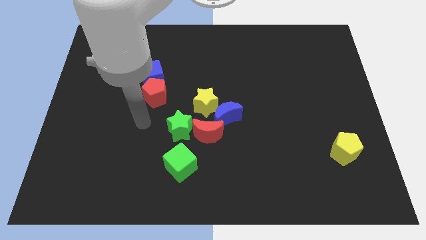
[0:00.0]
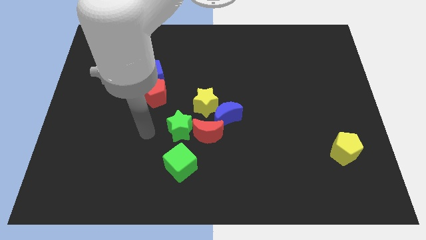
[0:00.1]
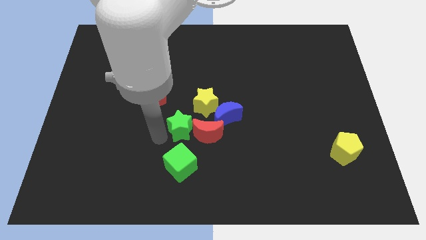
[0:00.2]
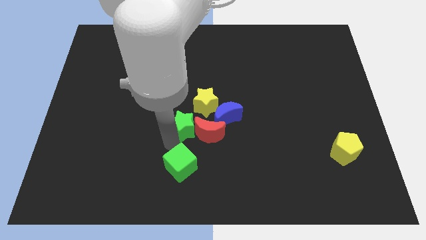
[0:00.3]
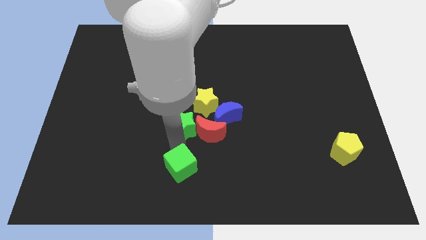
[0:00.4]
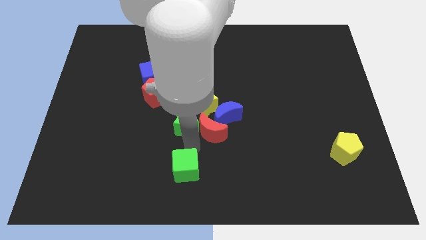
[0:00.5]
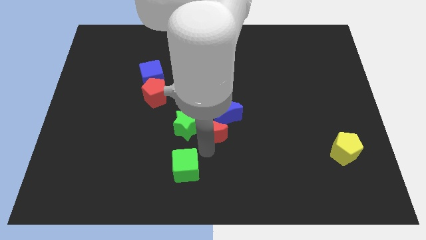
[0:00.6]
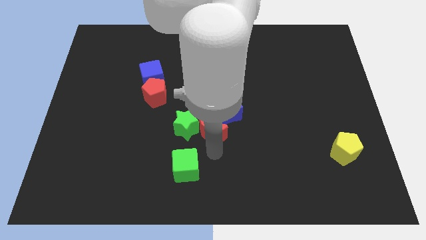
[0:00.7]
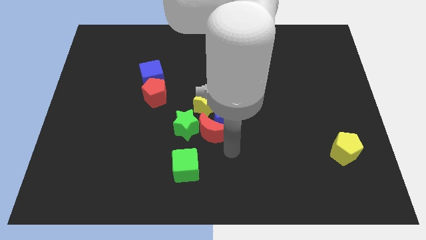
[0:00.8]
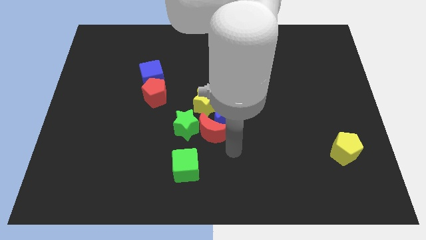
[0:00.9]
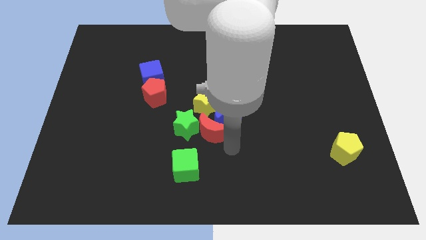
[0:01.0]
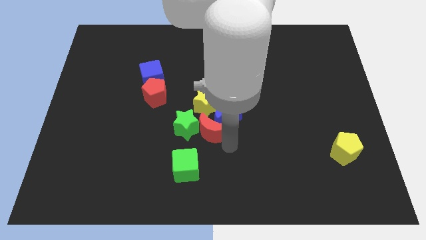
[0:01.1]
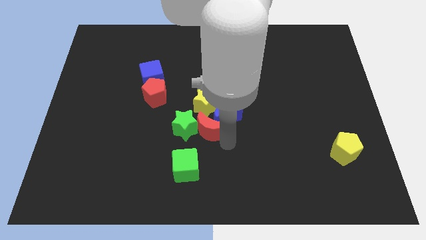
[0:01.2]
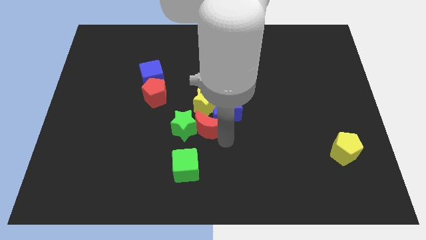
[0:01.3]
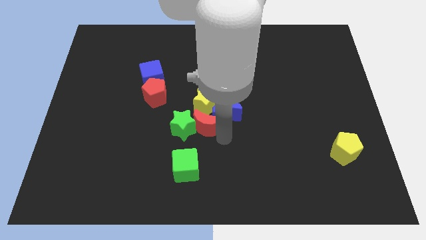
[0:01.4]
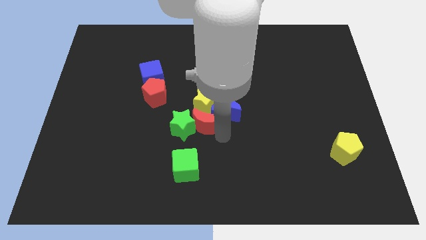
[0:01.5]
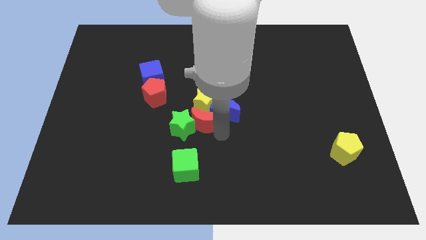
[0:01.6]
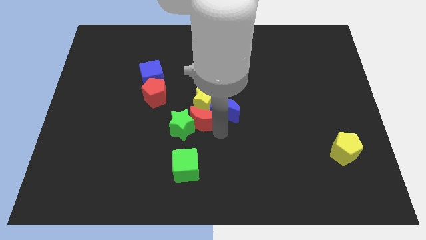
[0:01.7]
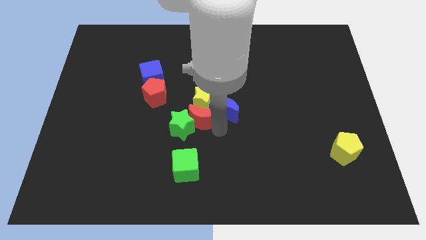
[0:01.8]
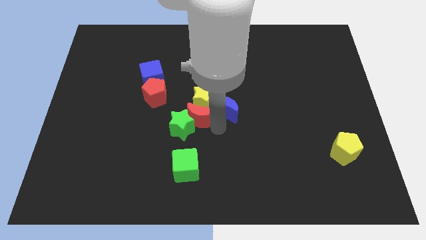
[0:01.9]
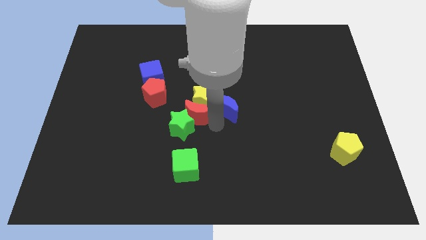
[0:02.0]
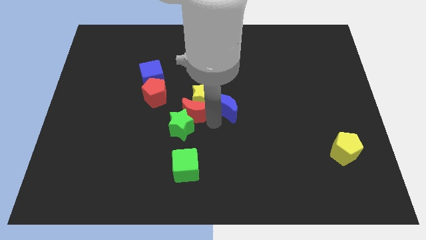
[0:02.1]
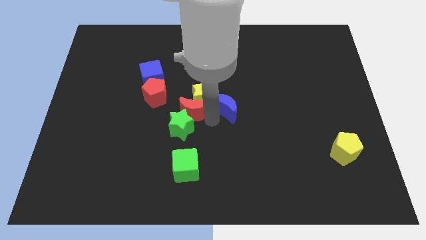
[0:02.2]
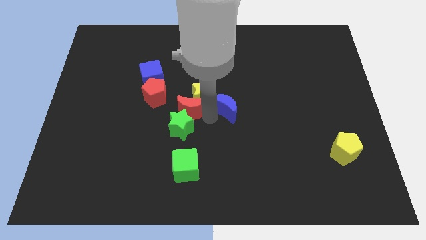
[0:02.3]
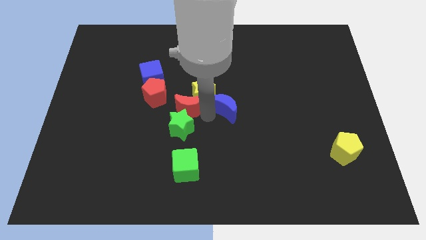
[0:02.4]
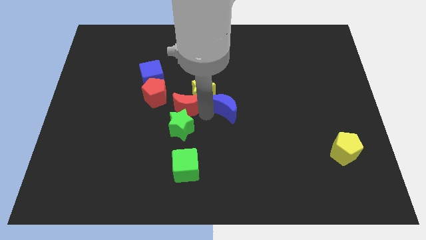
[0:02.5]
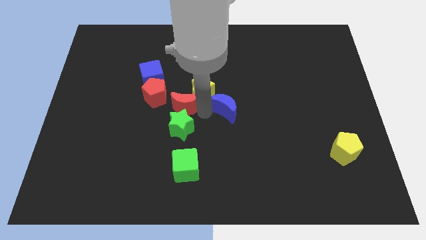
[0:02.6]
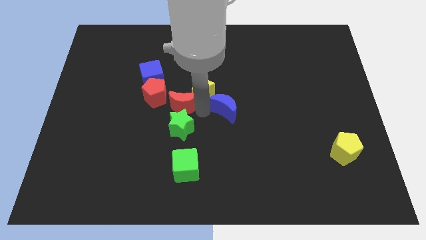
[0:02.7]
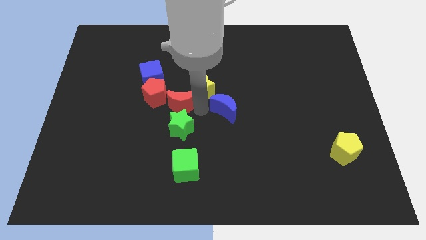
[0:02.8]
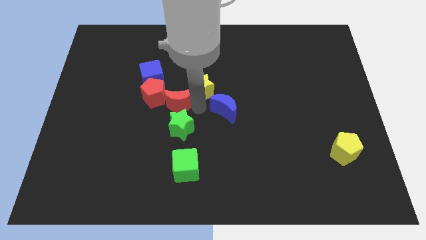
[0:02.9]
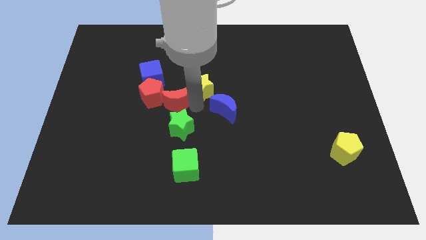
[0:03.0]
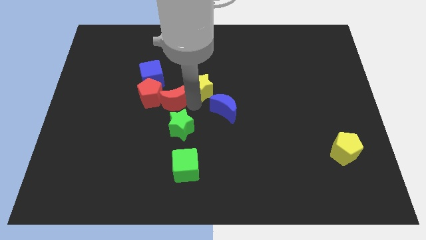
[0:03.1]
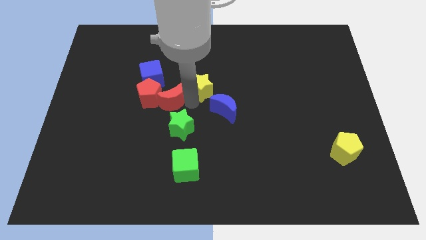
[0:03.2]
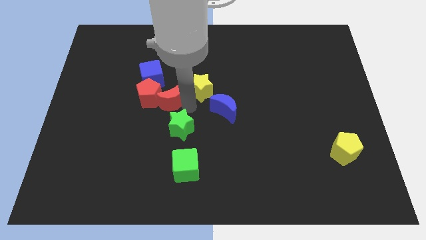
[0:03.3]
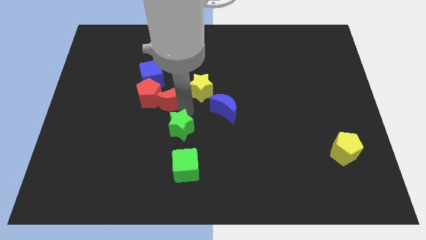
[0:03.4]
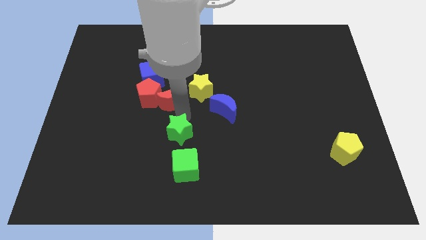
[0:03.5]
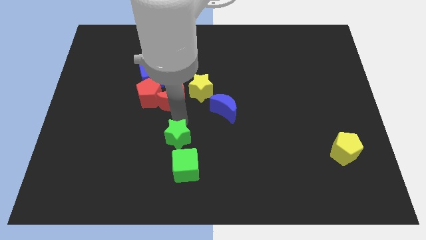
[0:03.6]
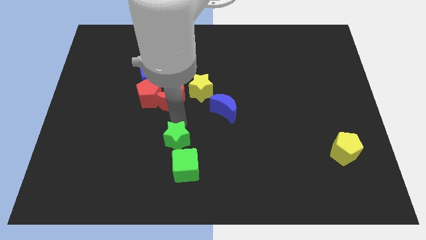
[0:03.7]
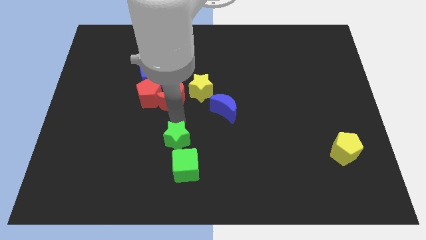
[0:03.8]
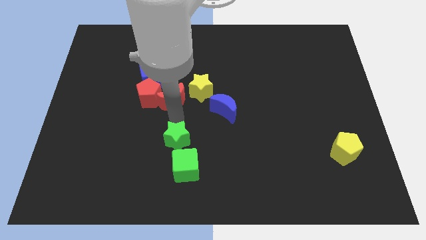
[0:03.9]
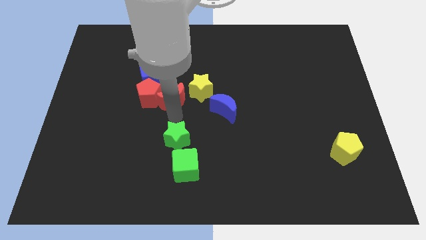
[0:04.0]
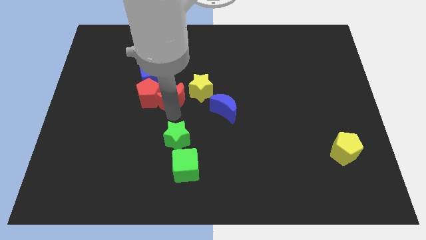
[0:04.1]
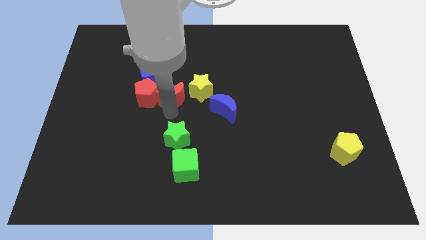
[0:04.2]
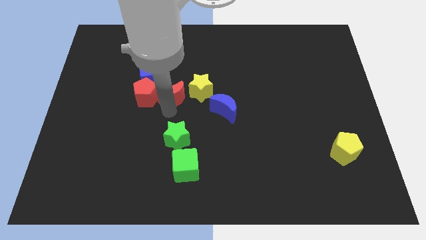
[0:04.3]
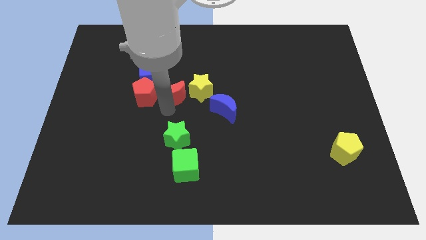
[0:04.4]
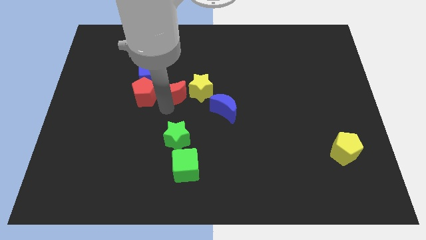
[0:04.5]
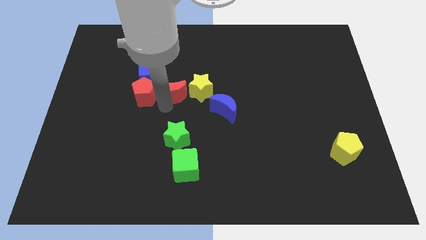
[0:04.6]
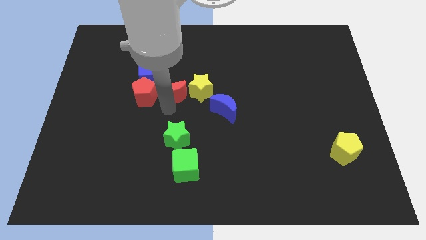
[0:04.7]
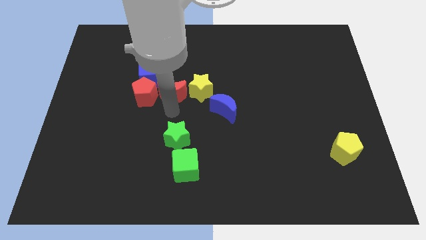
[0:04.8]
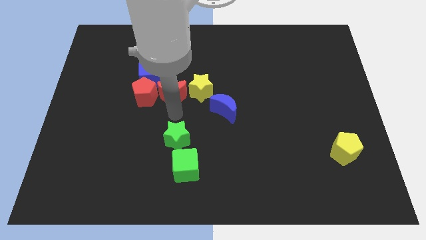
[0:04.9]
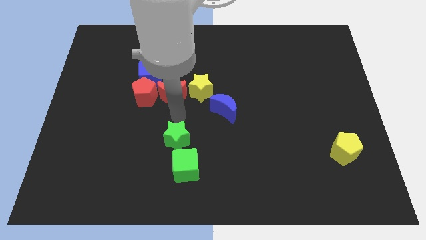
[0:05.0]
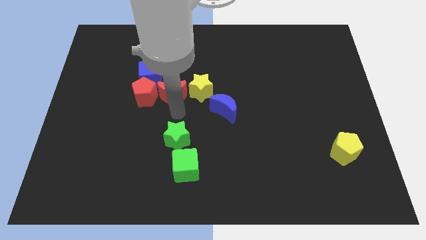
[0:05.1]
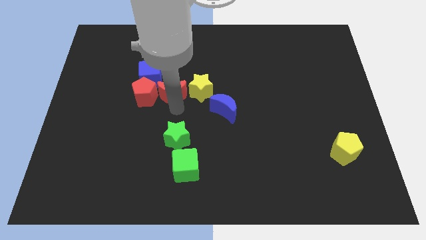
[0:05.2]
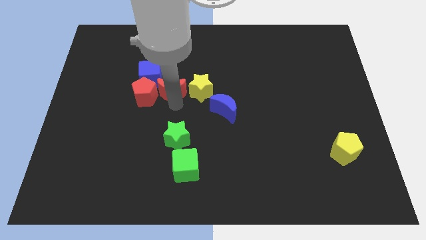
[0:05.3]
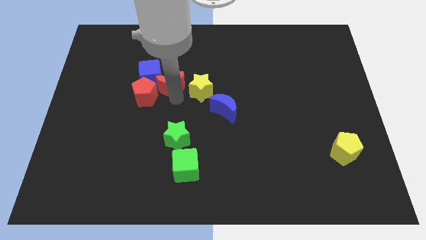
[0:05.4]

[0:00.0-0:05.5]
put the red moon next to the blue cube

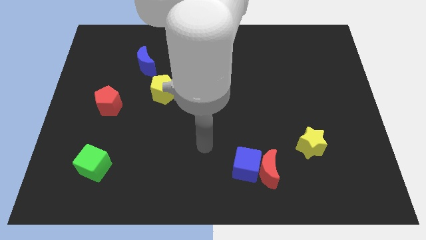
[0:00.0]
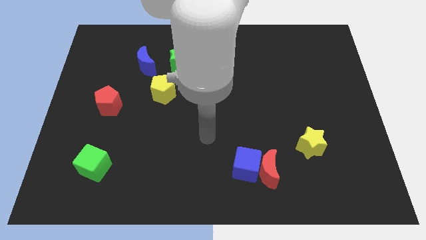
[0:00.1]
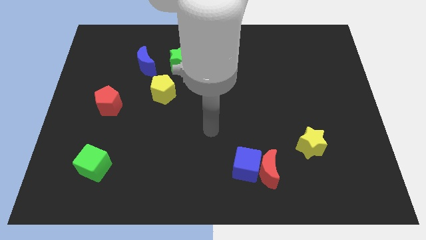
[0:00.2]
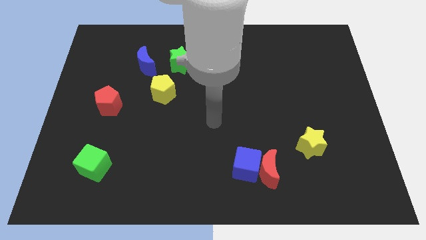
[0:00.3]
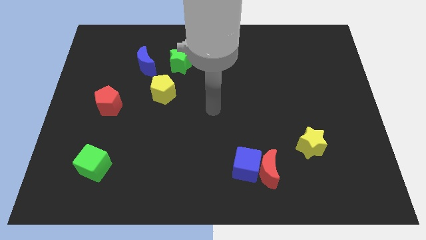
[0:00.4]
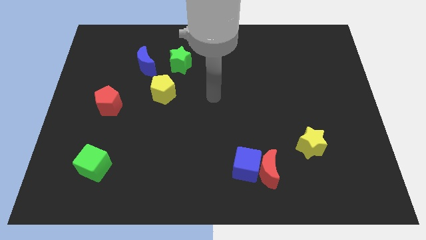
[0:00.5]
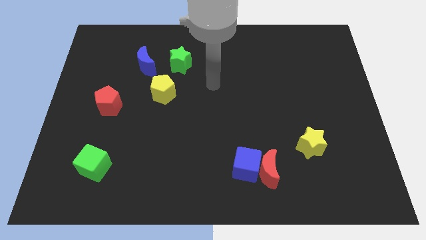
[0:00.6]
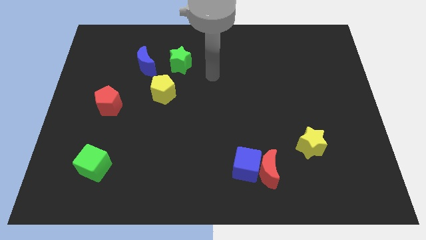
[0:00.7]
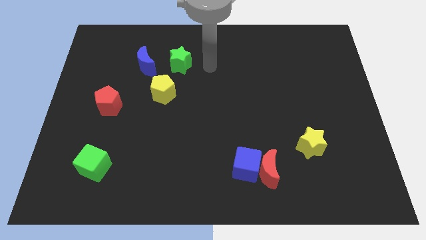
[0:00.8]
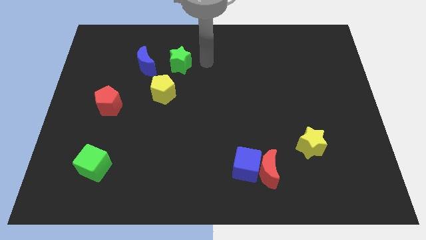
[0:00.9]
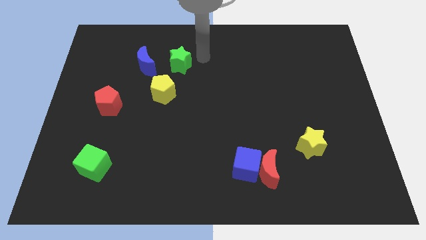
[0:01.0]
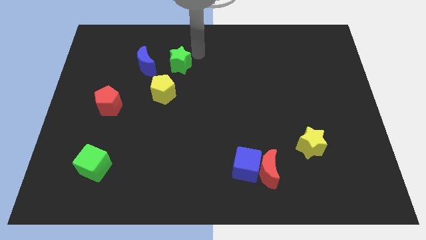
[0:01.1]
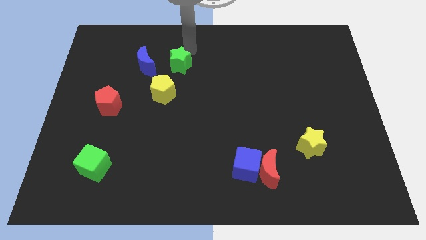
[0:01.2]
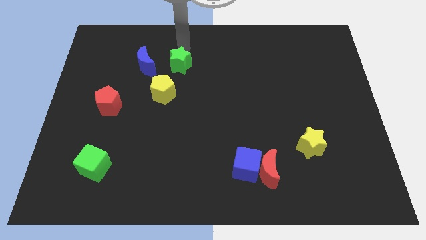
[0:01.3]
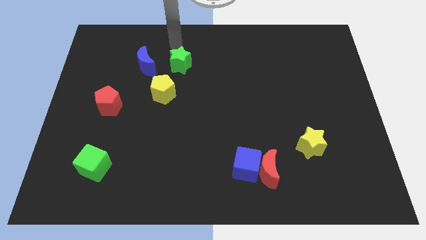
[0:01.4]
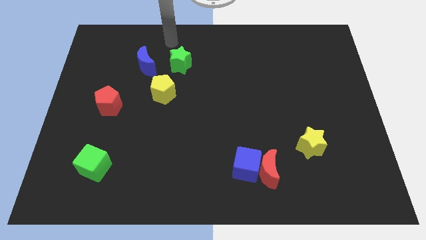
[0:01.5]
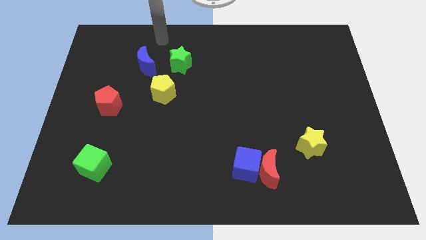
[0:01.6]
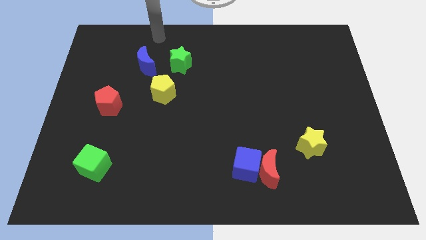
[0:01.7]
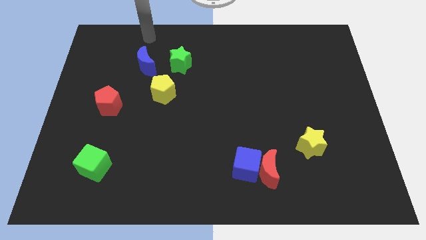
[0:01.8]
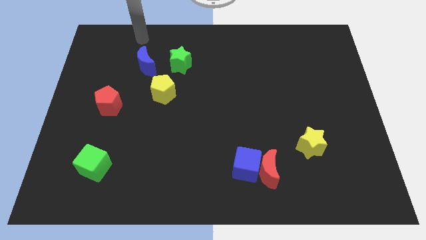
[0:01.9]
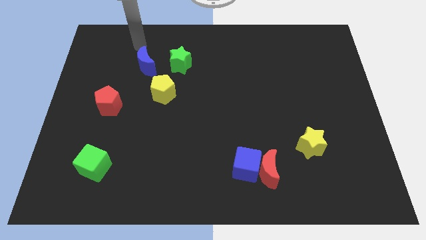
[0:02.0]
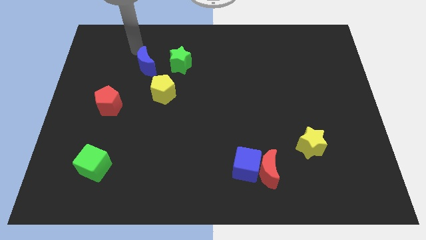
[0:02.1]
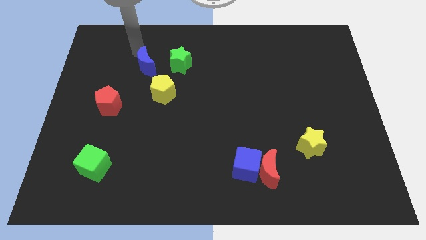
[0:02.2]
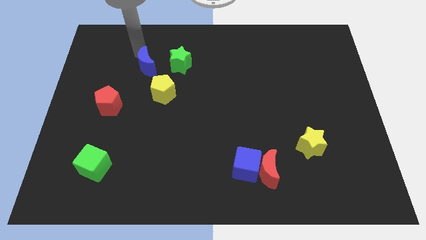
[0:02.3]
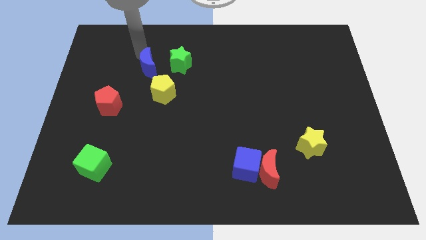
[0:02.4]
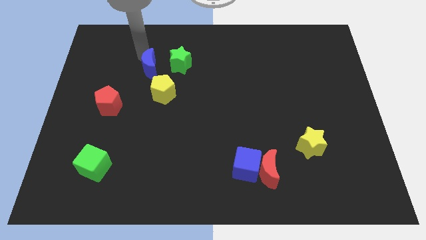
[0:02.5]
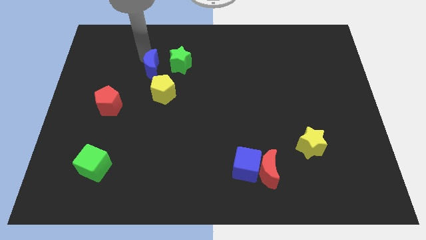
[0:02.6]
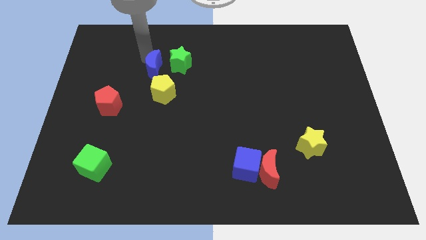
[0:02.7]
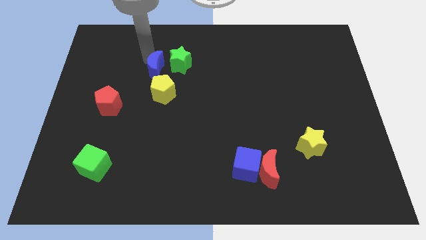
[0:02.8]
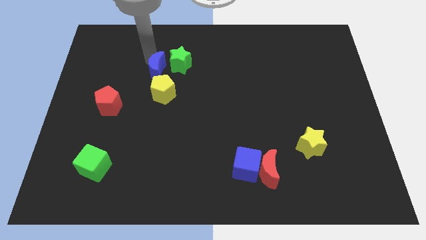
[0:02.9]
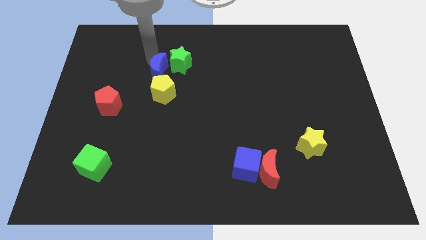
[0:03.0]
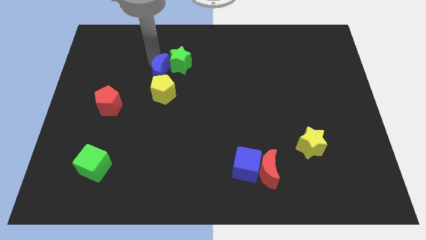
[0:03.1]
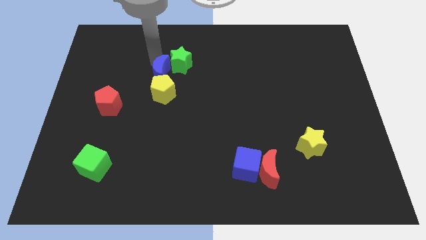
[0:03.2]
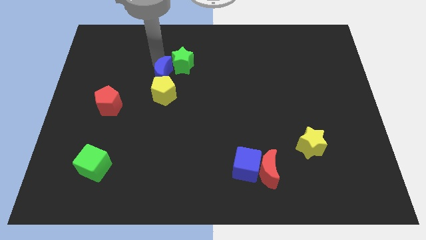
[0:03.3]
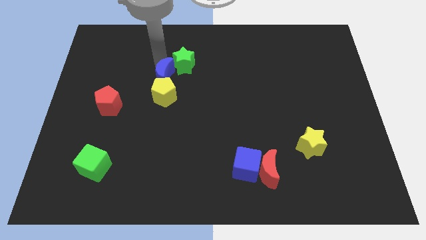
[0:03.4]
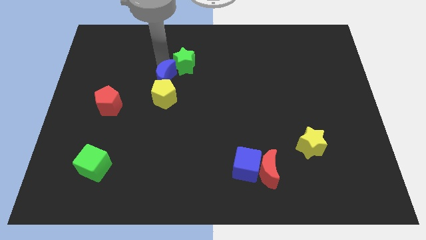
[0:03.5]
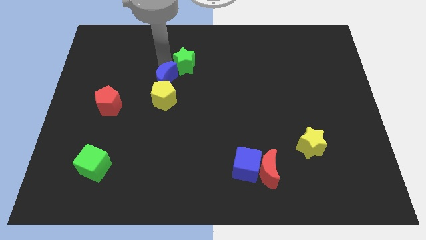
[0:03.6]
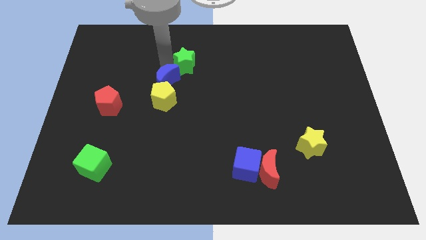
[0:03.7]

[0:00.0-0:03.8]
put the blue moon next to the yellow pentagon
